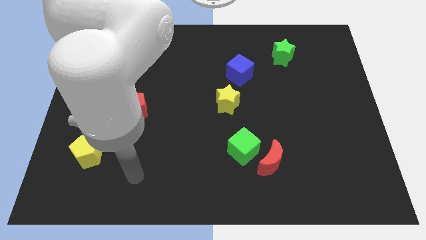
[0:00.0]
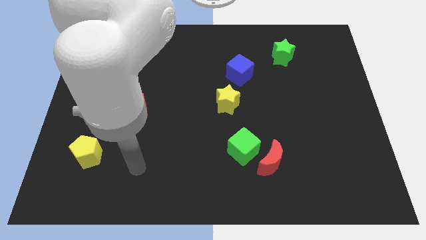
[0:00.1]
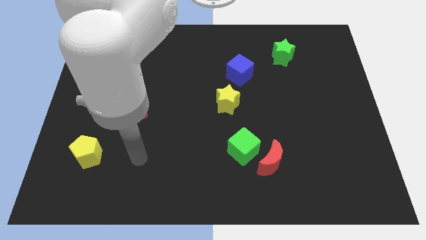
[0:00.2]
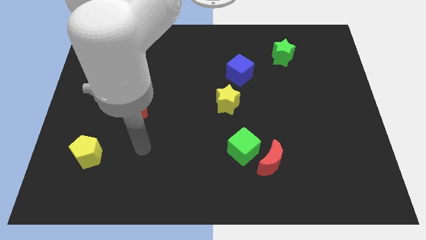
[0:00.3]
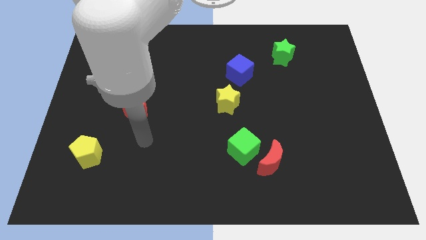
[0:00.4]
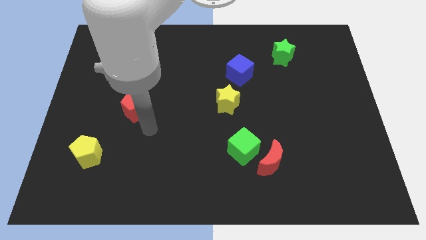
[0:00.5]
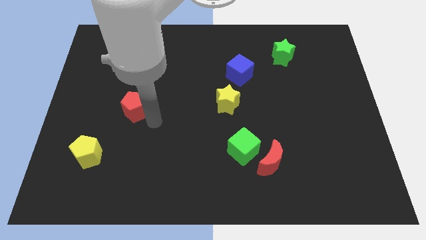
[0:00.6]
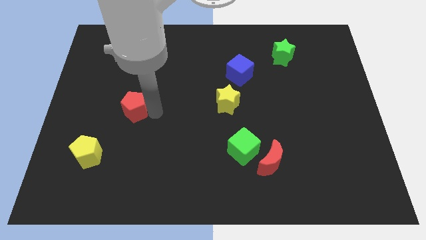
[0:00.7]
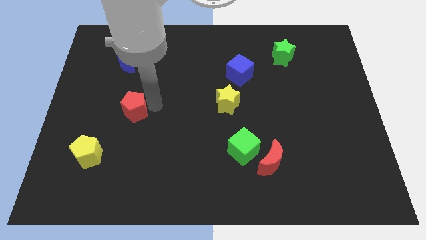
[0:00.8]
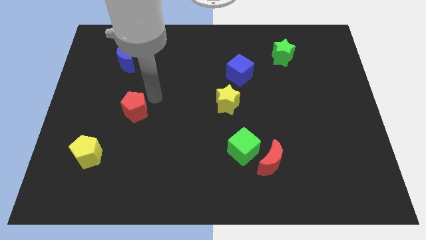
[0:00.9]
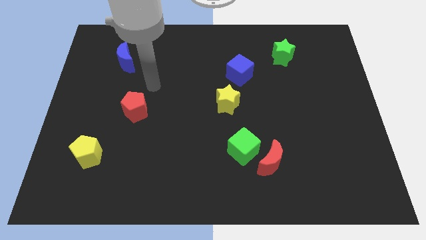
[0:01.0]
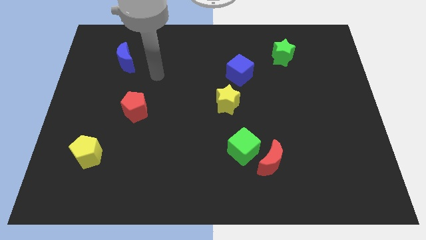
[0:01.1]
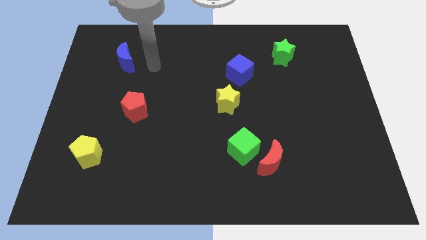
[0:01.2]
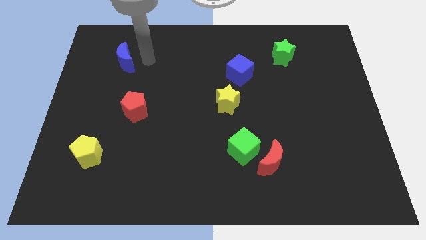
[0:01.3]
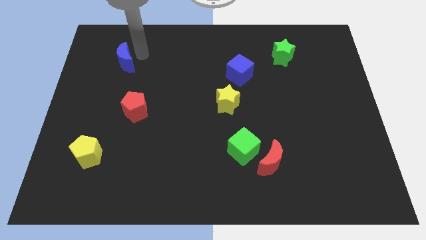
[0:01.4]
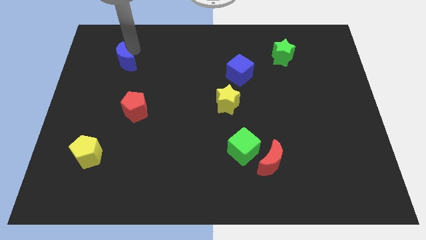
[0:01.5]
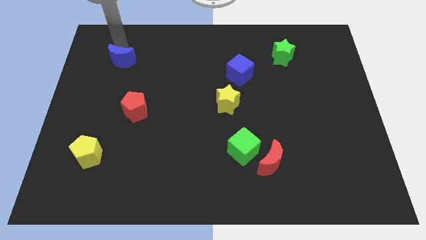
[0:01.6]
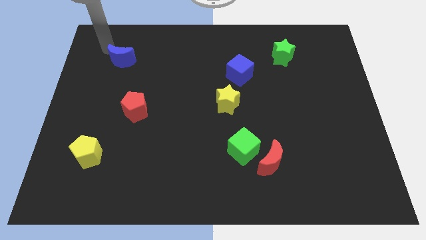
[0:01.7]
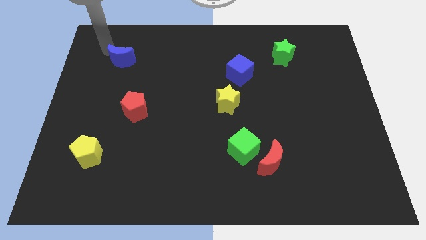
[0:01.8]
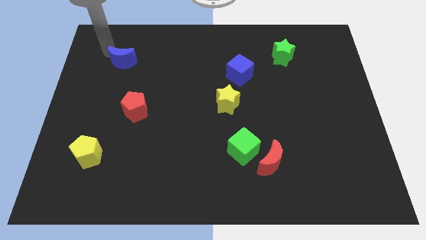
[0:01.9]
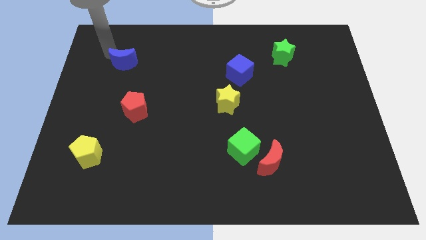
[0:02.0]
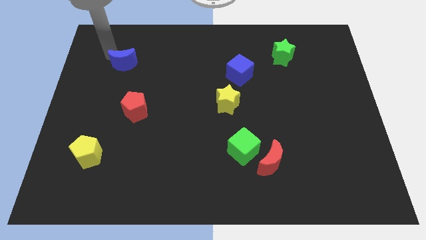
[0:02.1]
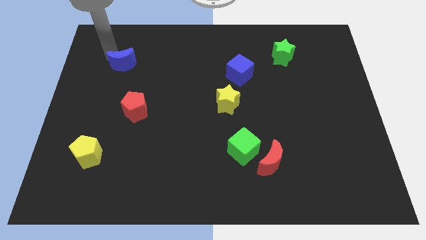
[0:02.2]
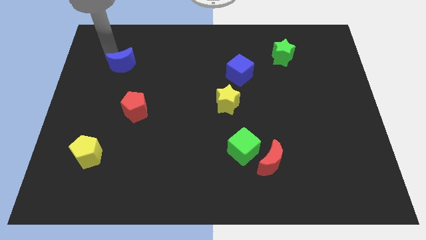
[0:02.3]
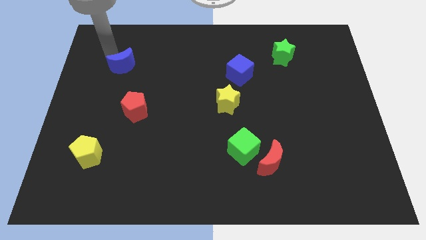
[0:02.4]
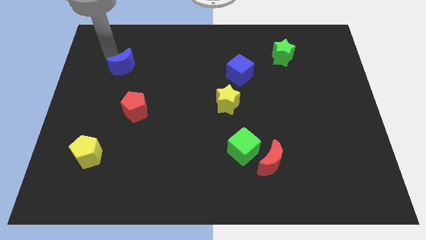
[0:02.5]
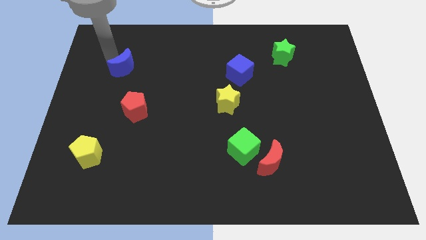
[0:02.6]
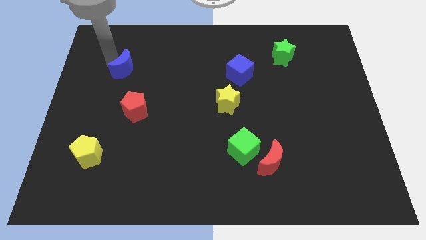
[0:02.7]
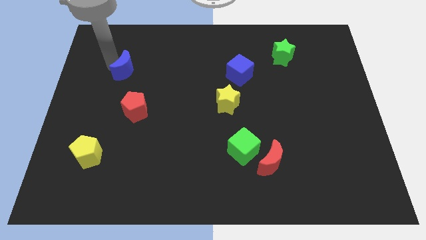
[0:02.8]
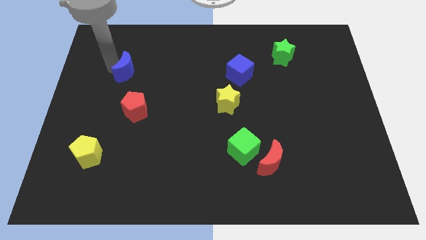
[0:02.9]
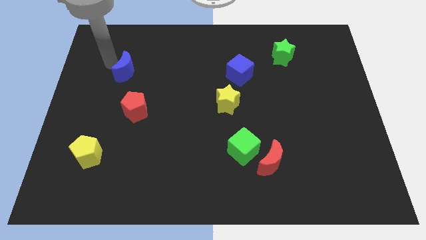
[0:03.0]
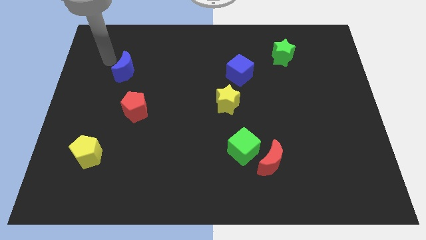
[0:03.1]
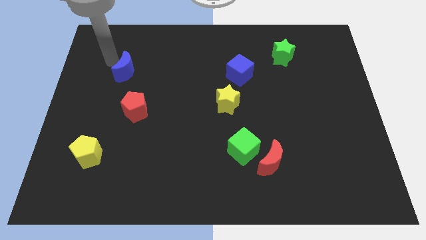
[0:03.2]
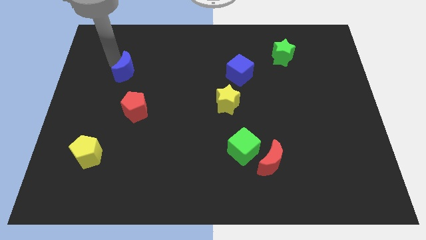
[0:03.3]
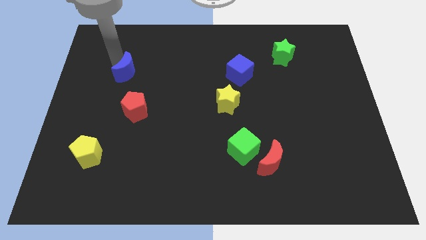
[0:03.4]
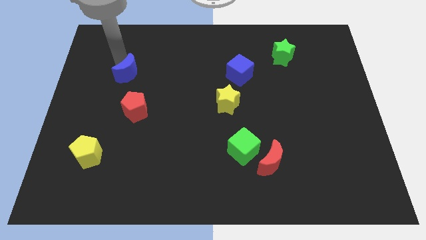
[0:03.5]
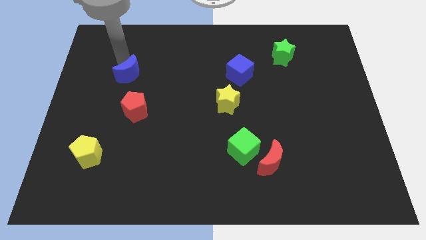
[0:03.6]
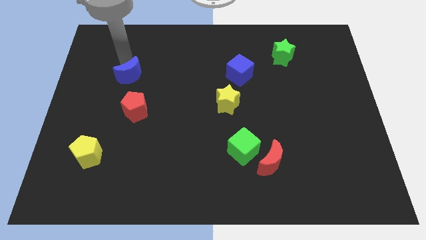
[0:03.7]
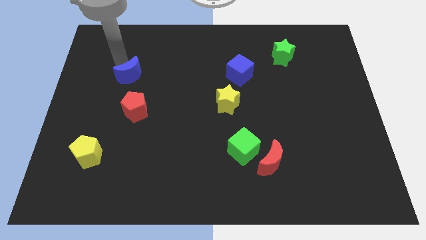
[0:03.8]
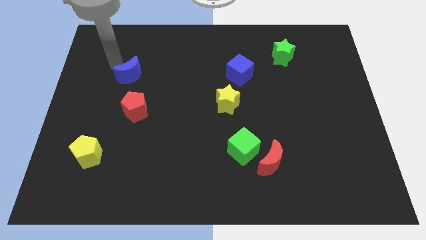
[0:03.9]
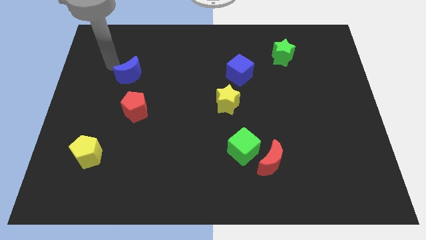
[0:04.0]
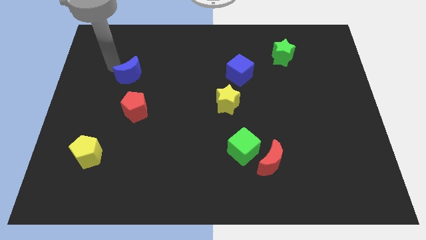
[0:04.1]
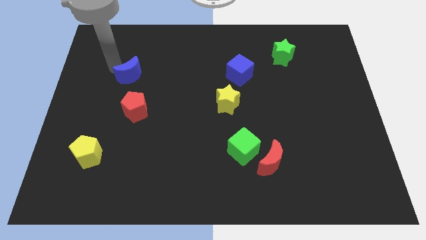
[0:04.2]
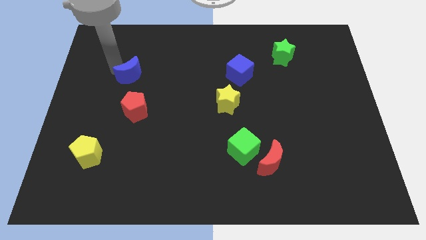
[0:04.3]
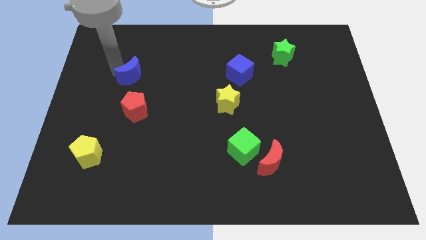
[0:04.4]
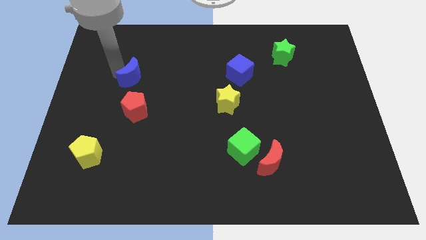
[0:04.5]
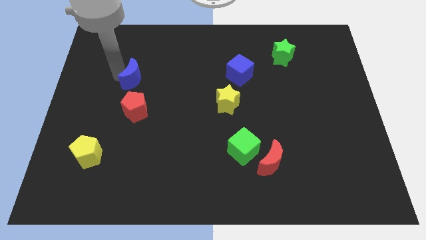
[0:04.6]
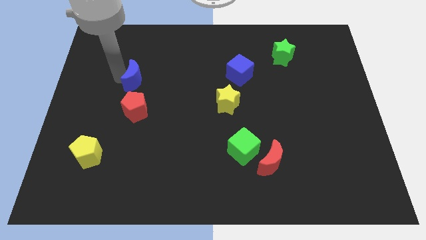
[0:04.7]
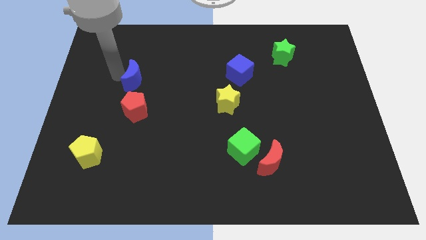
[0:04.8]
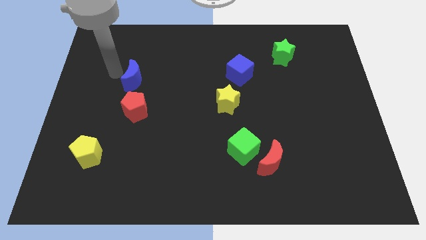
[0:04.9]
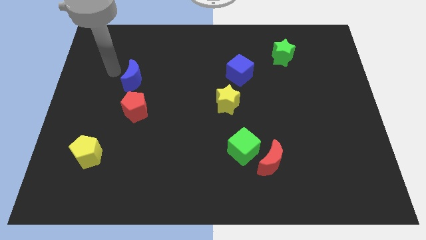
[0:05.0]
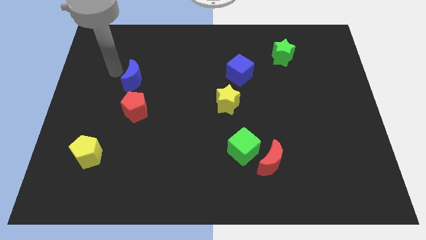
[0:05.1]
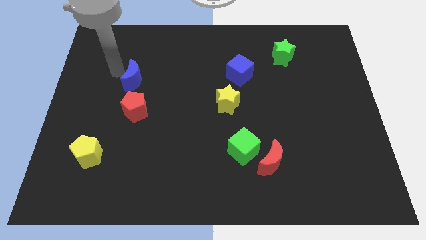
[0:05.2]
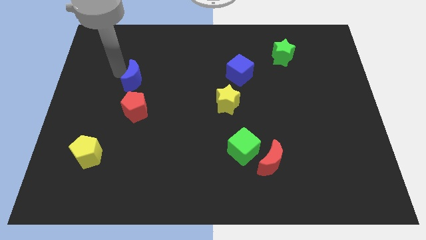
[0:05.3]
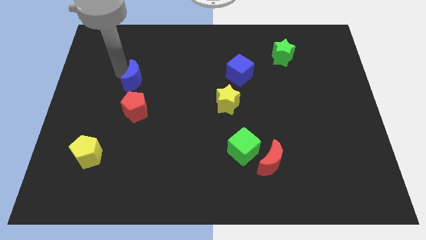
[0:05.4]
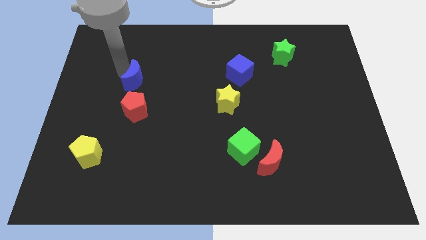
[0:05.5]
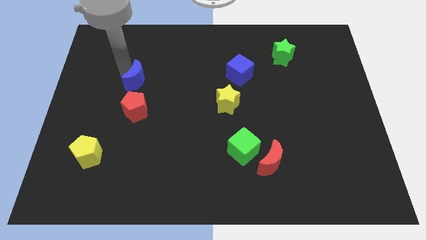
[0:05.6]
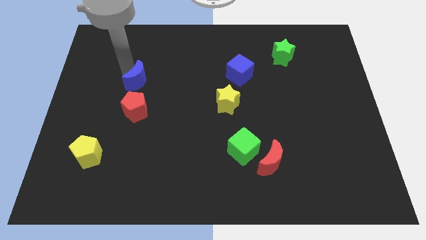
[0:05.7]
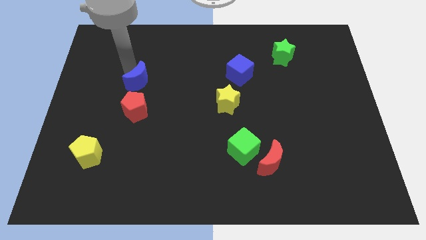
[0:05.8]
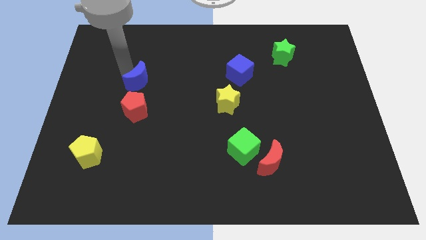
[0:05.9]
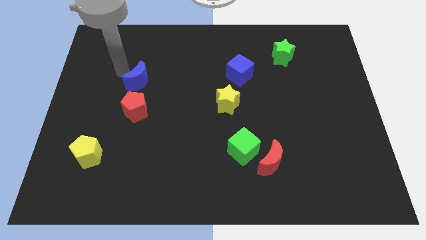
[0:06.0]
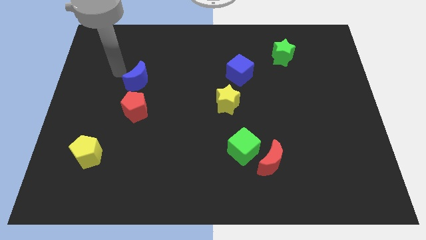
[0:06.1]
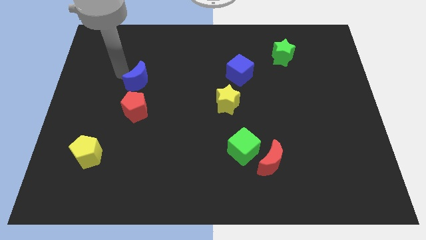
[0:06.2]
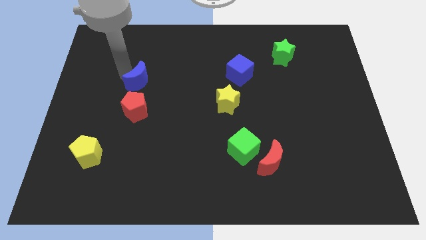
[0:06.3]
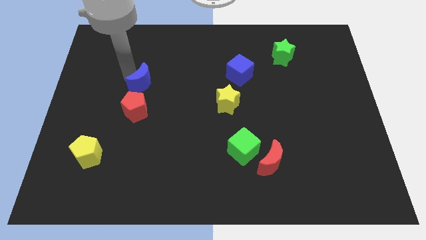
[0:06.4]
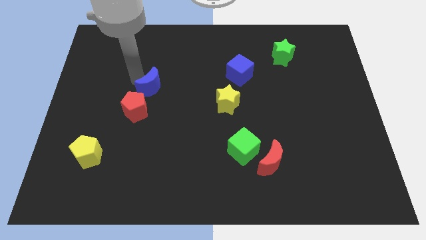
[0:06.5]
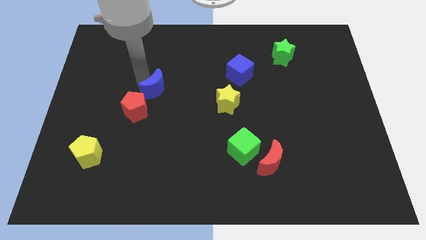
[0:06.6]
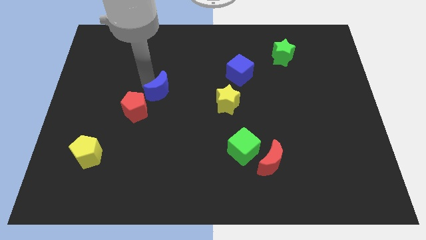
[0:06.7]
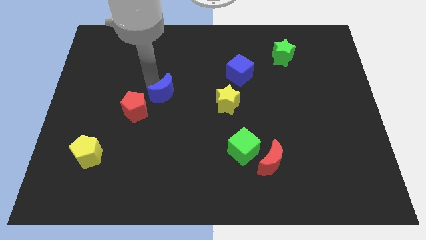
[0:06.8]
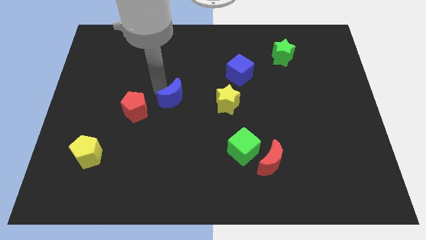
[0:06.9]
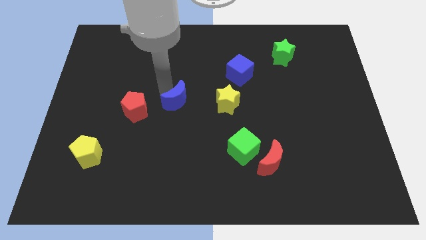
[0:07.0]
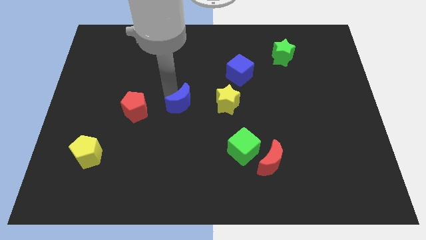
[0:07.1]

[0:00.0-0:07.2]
move the blue moon down and then right

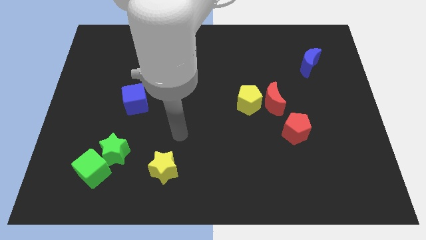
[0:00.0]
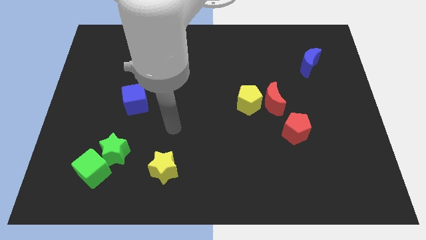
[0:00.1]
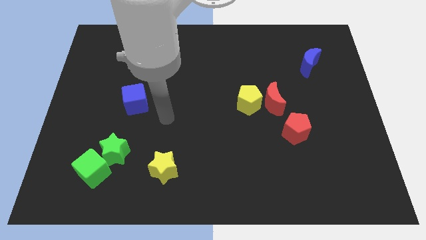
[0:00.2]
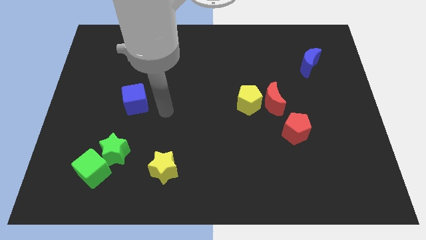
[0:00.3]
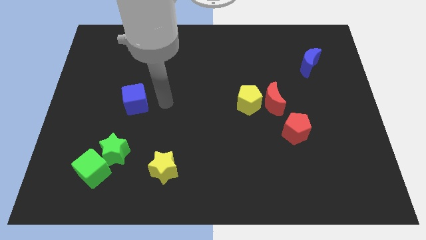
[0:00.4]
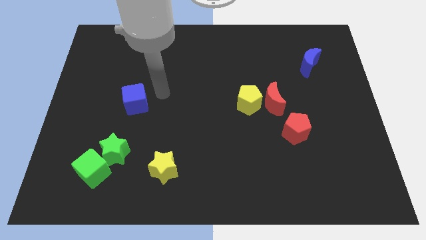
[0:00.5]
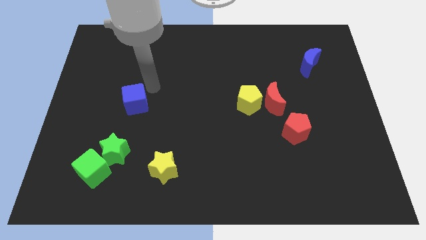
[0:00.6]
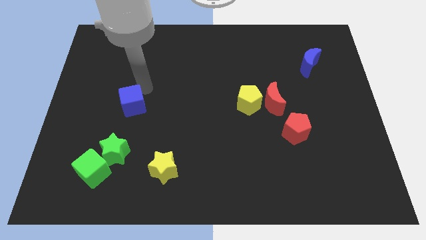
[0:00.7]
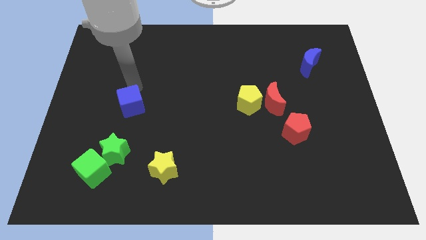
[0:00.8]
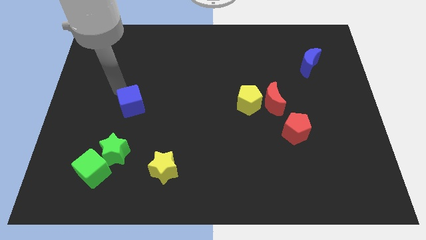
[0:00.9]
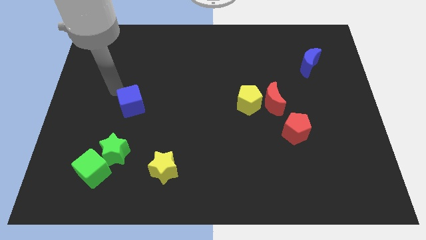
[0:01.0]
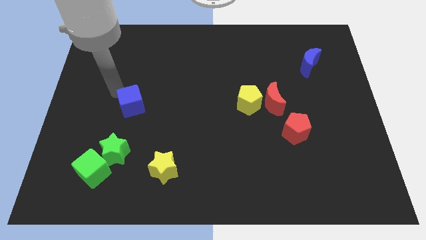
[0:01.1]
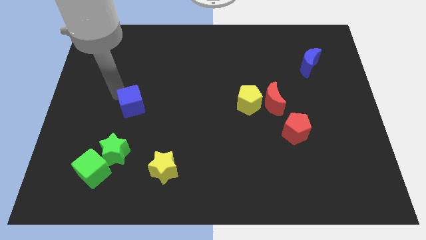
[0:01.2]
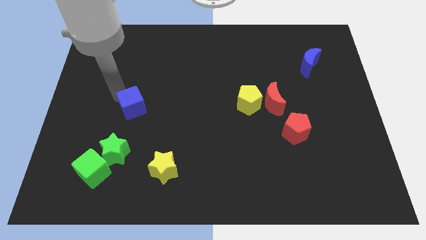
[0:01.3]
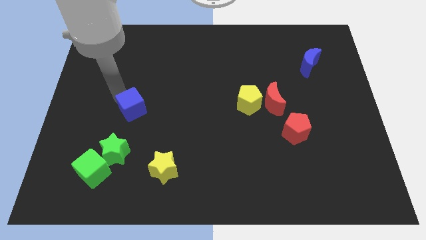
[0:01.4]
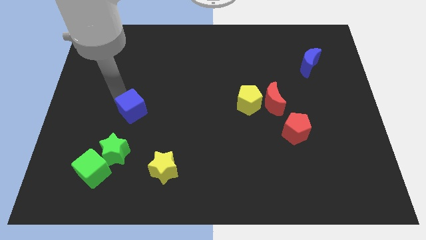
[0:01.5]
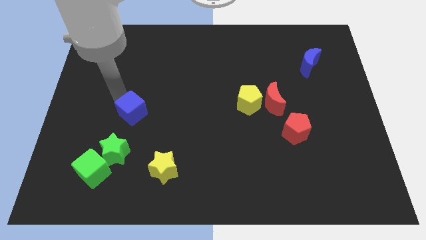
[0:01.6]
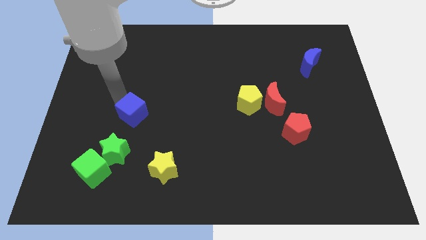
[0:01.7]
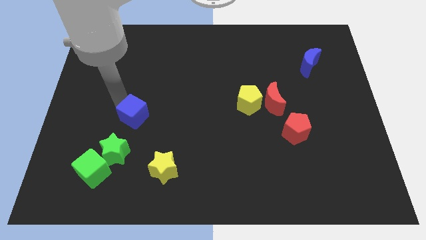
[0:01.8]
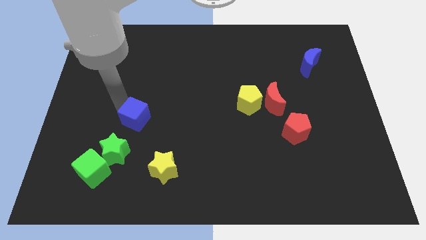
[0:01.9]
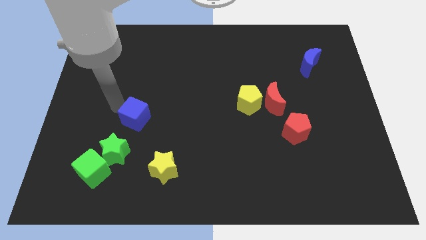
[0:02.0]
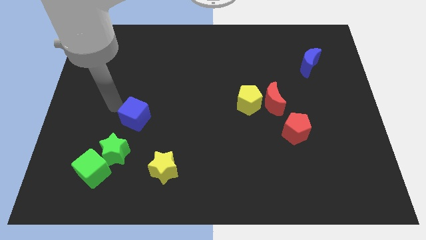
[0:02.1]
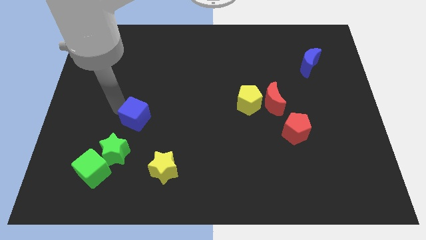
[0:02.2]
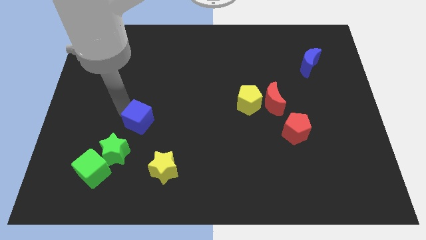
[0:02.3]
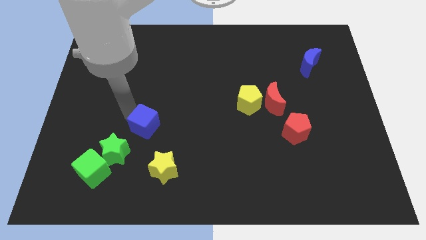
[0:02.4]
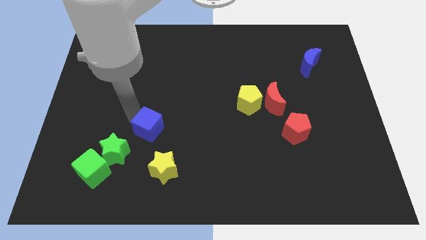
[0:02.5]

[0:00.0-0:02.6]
slightly move the blue cube downwards and right diagonally
